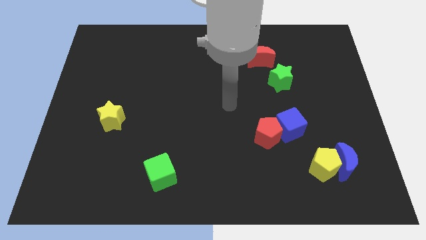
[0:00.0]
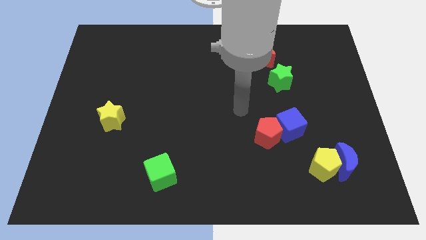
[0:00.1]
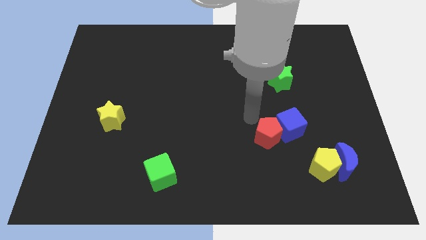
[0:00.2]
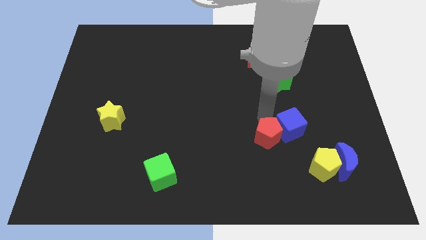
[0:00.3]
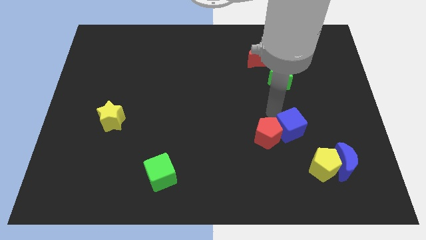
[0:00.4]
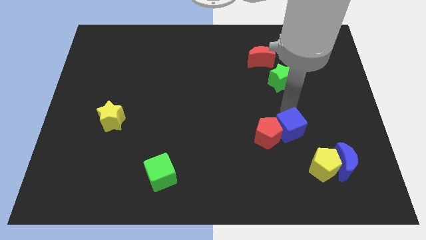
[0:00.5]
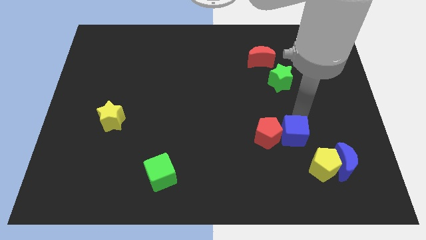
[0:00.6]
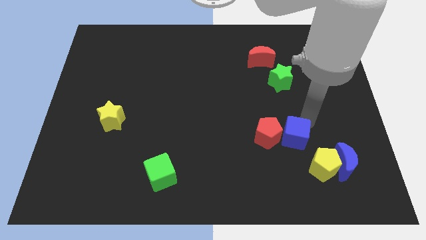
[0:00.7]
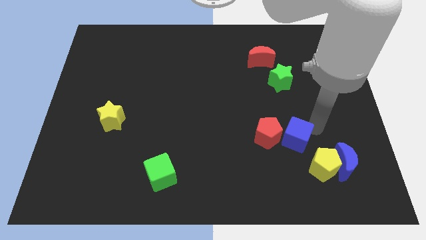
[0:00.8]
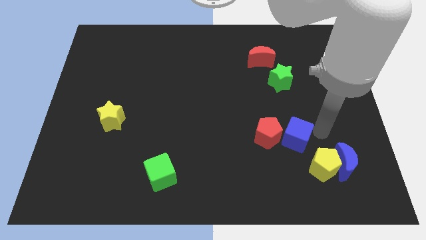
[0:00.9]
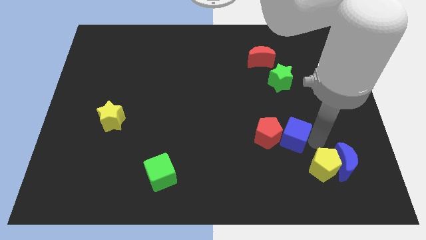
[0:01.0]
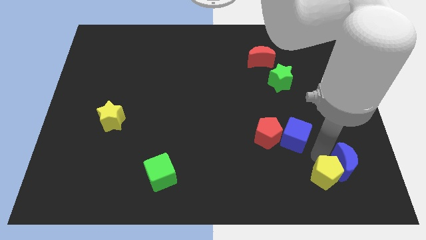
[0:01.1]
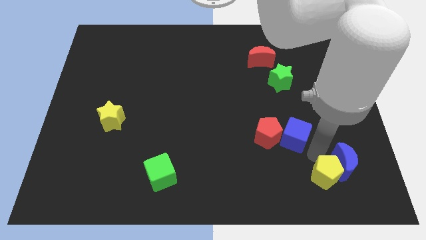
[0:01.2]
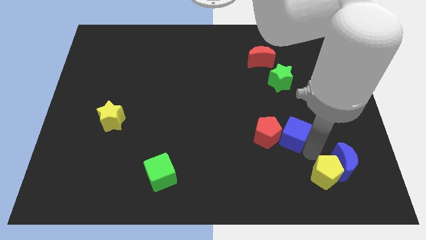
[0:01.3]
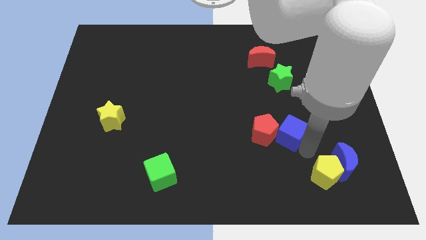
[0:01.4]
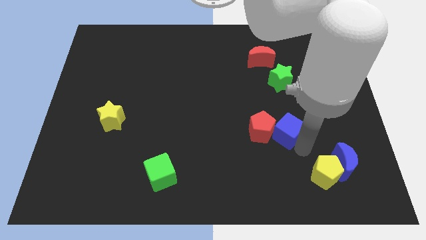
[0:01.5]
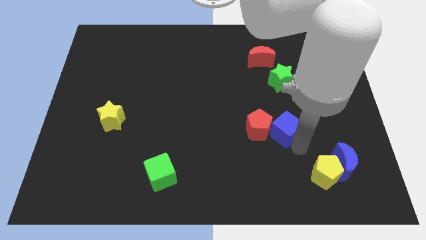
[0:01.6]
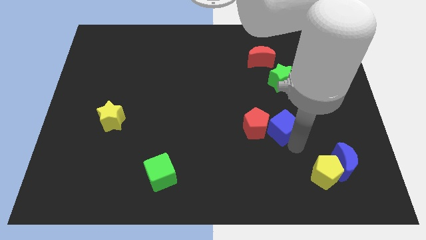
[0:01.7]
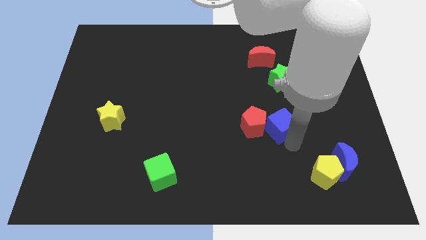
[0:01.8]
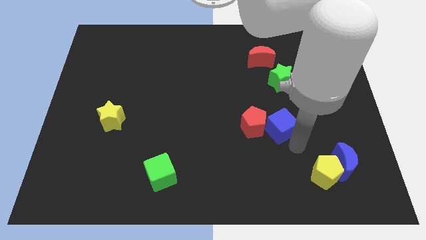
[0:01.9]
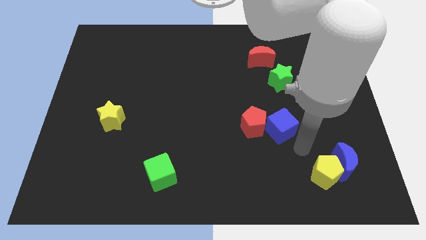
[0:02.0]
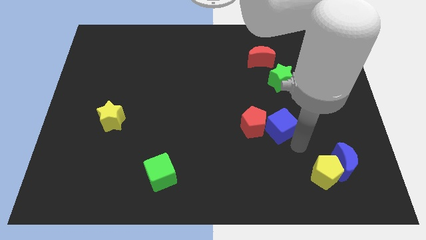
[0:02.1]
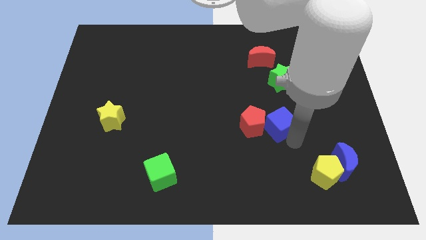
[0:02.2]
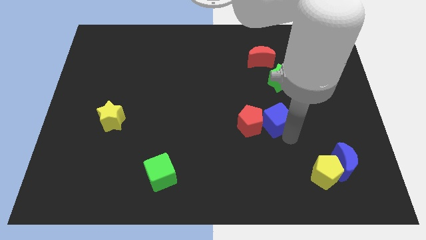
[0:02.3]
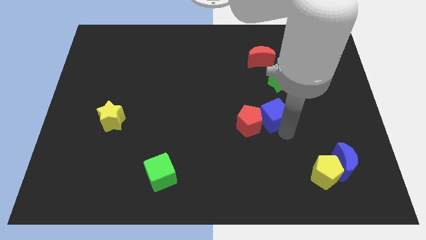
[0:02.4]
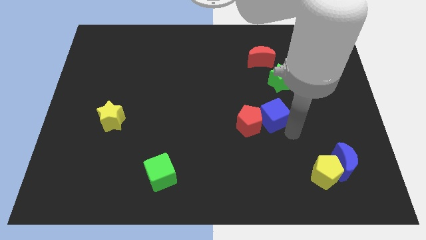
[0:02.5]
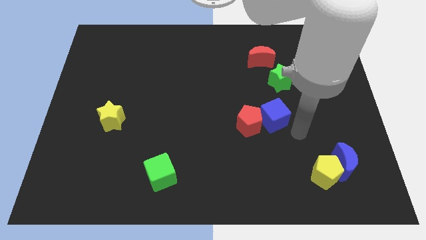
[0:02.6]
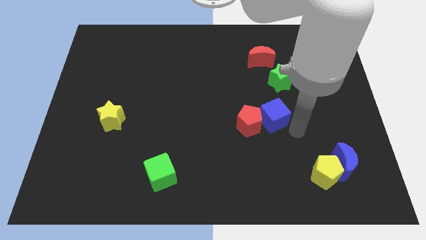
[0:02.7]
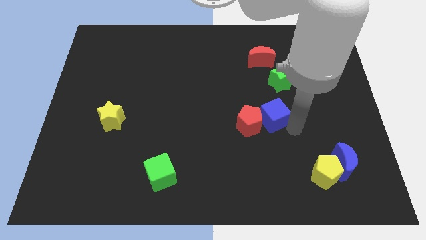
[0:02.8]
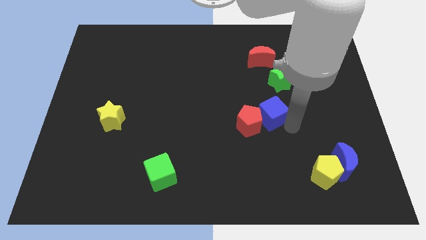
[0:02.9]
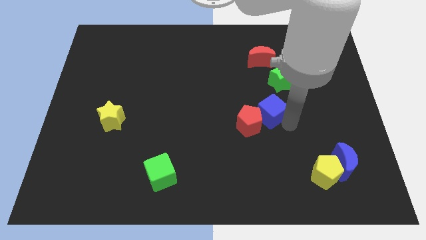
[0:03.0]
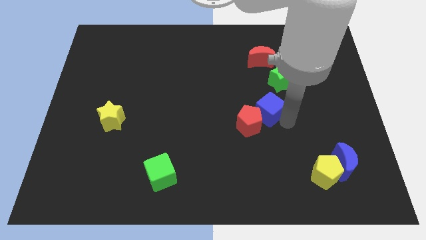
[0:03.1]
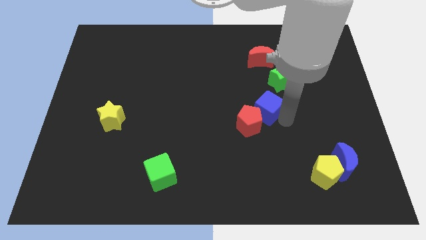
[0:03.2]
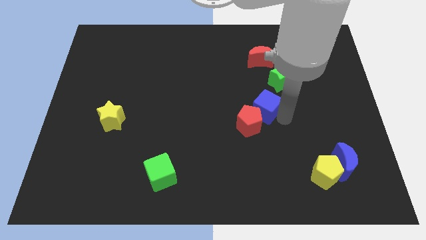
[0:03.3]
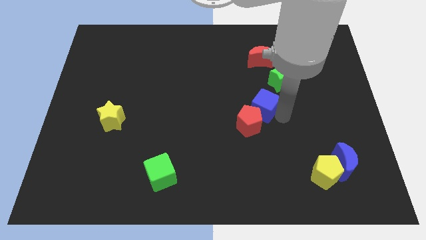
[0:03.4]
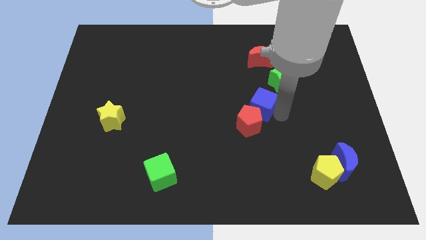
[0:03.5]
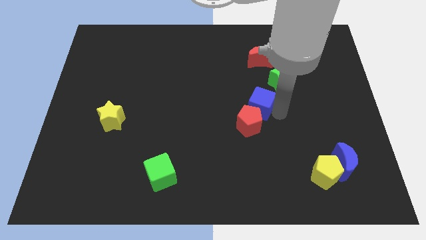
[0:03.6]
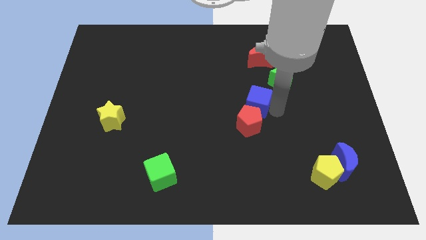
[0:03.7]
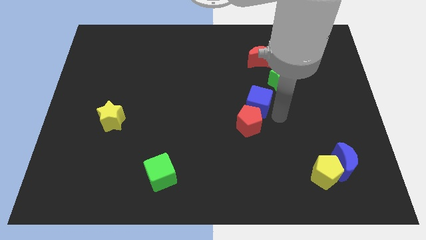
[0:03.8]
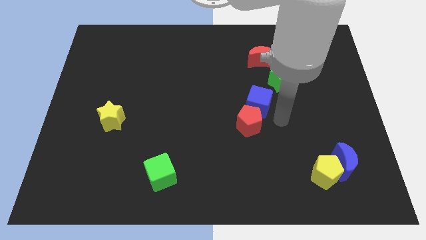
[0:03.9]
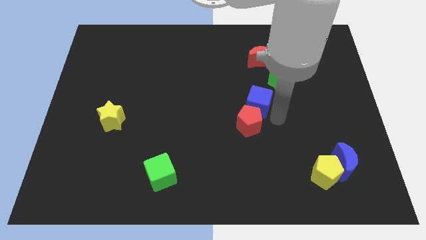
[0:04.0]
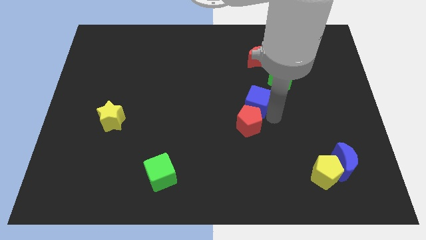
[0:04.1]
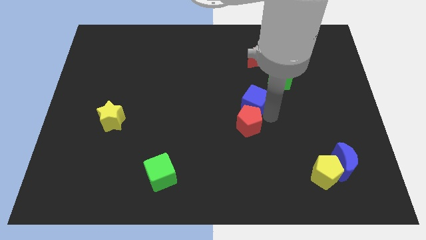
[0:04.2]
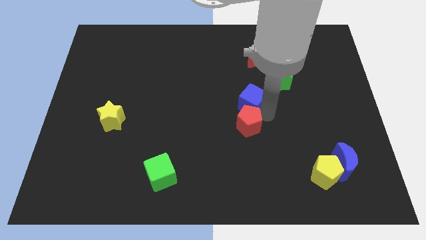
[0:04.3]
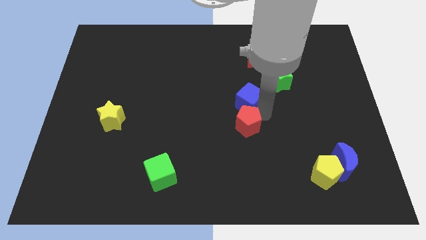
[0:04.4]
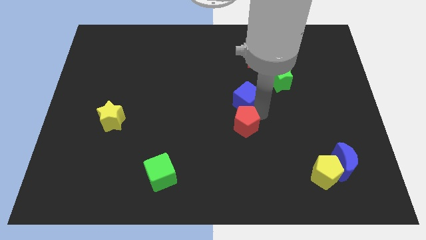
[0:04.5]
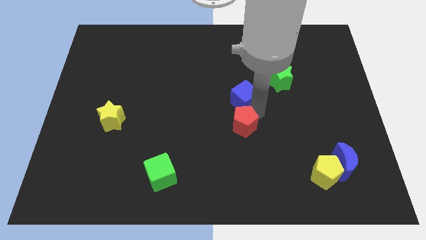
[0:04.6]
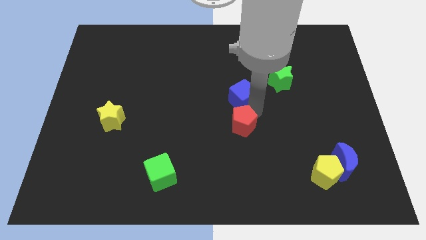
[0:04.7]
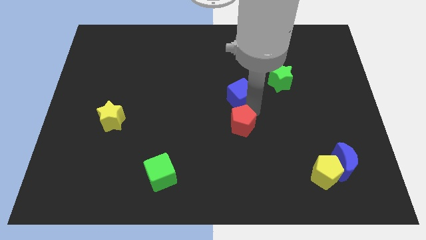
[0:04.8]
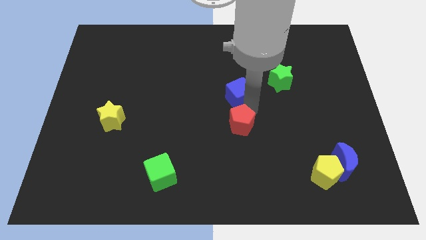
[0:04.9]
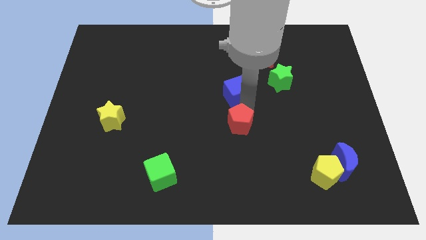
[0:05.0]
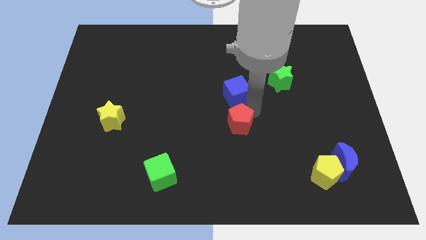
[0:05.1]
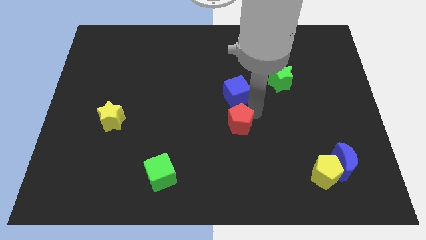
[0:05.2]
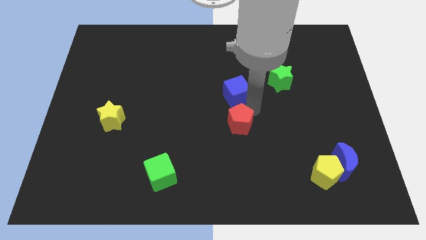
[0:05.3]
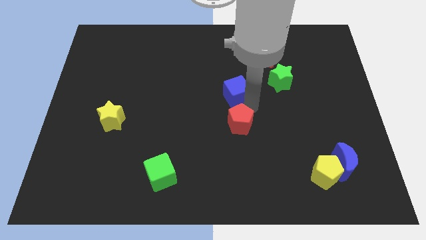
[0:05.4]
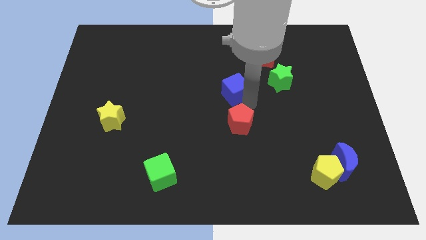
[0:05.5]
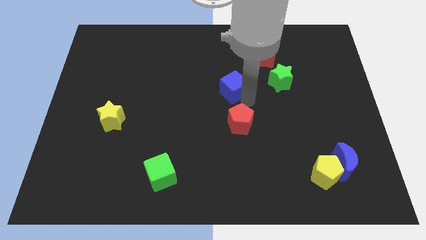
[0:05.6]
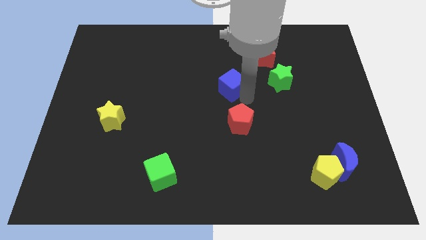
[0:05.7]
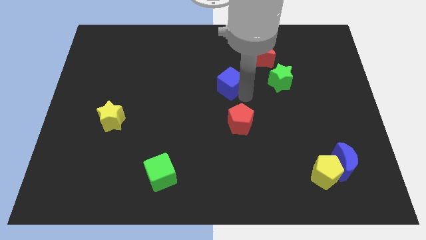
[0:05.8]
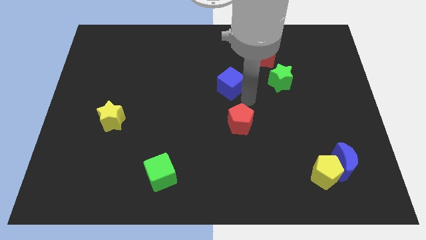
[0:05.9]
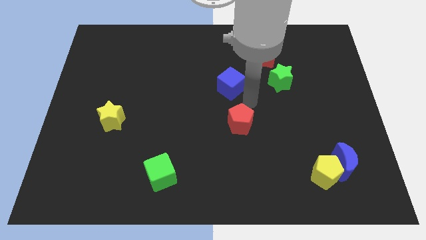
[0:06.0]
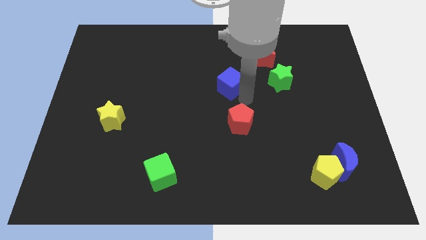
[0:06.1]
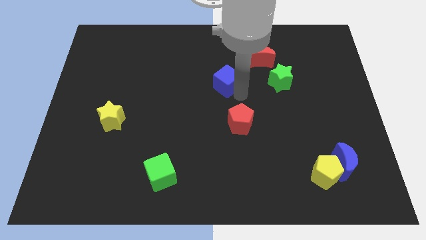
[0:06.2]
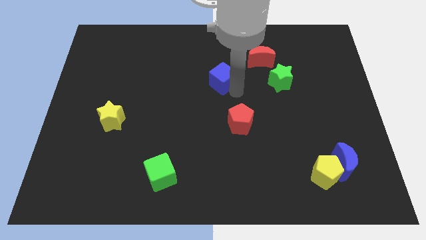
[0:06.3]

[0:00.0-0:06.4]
push the blue cube up and then left

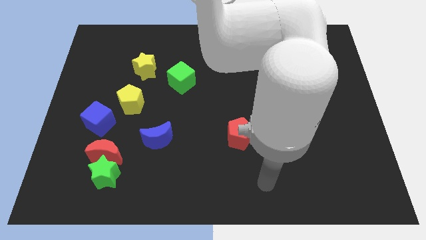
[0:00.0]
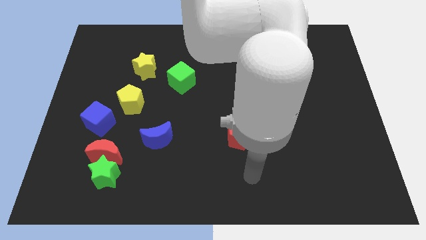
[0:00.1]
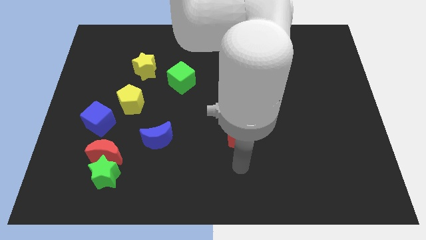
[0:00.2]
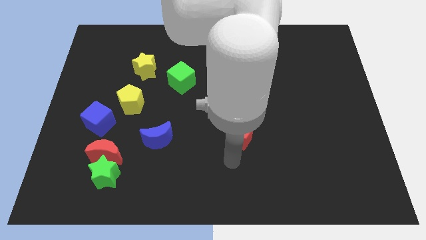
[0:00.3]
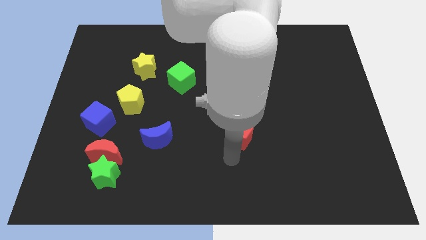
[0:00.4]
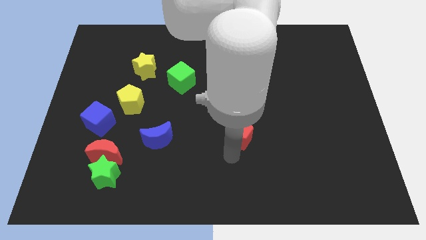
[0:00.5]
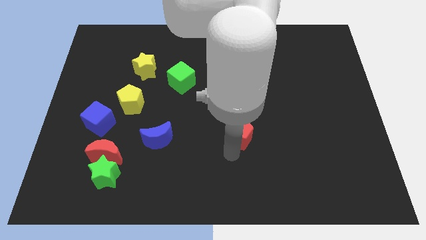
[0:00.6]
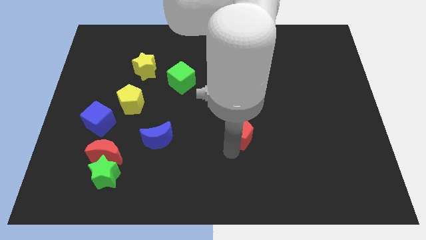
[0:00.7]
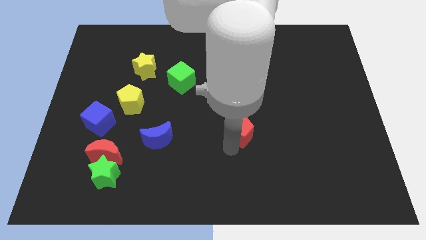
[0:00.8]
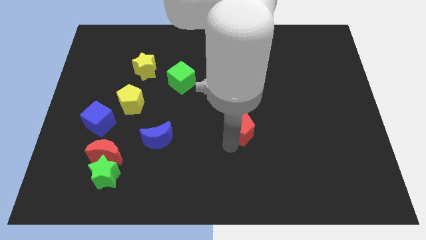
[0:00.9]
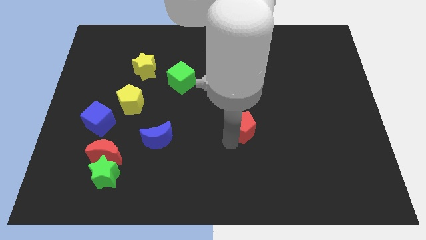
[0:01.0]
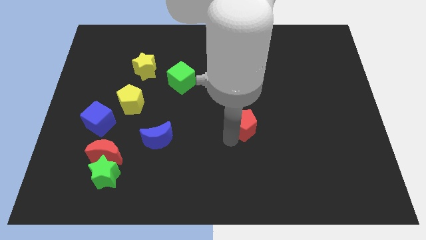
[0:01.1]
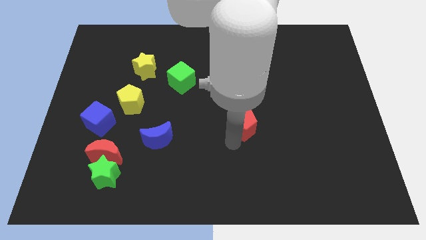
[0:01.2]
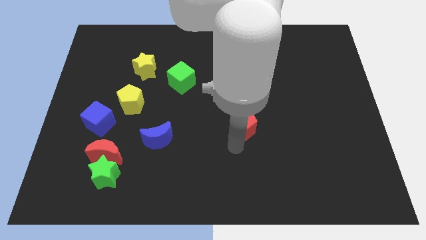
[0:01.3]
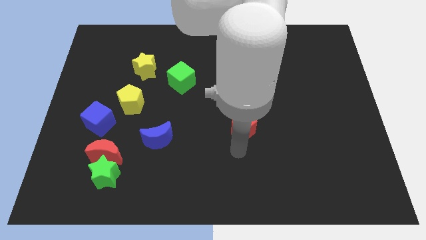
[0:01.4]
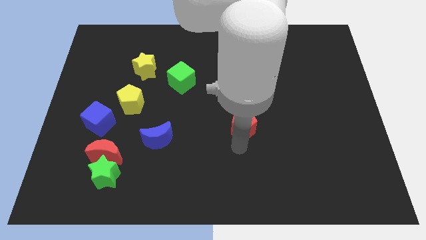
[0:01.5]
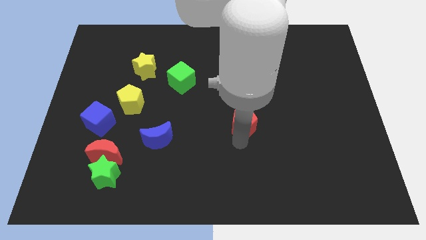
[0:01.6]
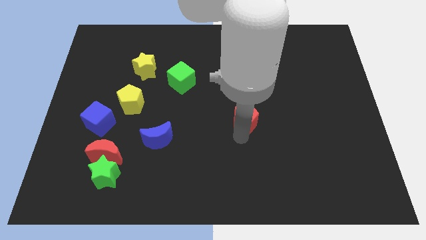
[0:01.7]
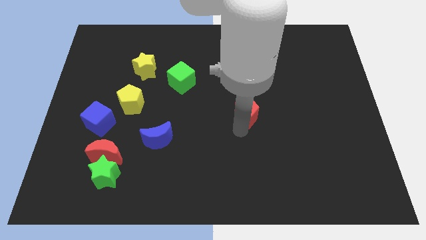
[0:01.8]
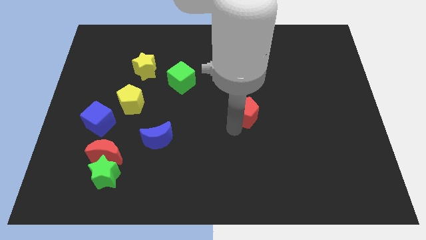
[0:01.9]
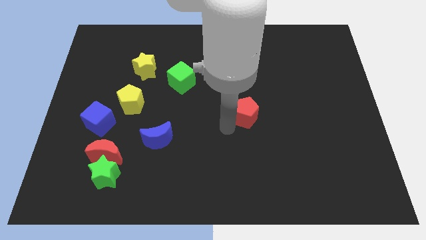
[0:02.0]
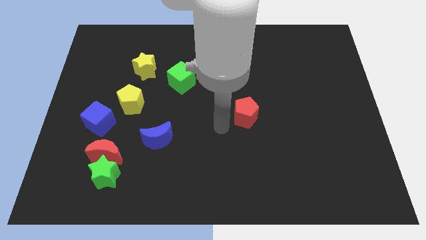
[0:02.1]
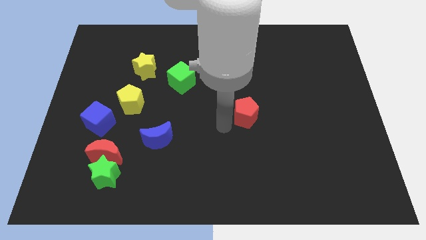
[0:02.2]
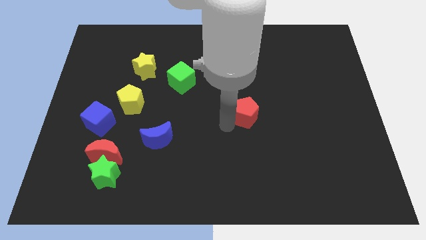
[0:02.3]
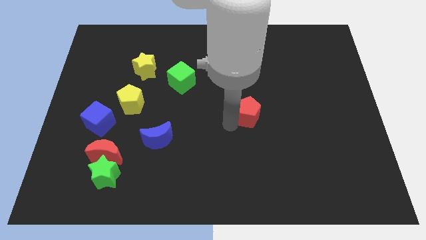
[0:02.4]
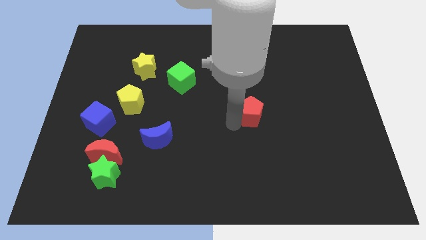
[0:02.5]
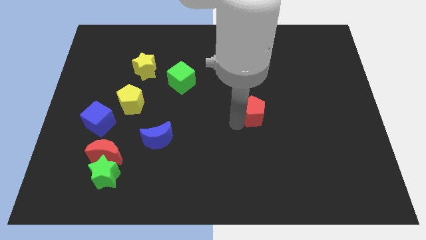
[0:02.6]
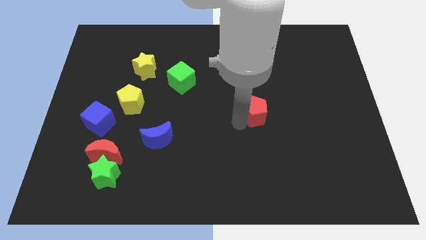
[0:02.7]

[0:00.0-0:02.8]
slightly push the red pentagon up and right
